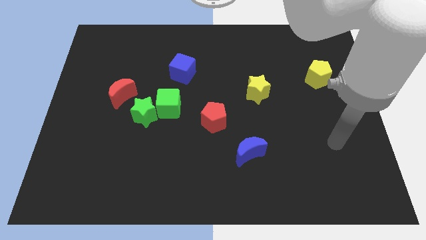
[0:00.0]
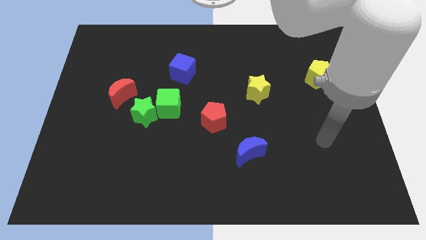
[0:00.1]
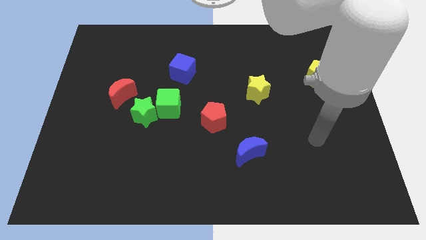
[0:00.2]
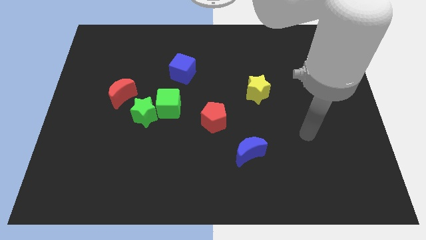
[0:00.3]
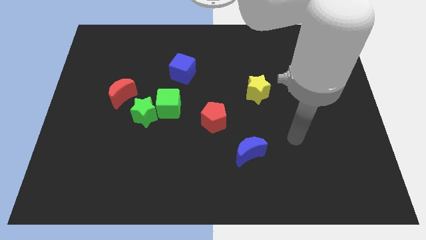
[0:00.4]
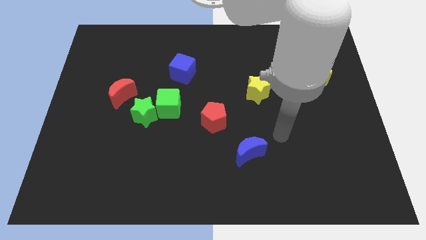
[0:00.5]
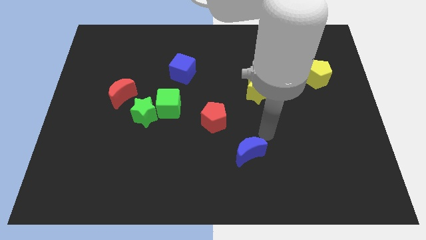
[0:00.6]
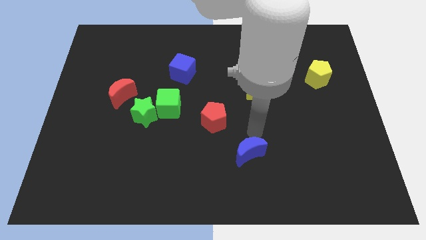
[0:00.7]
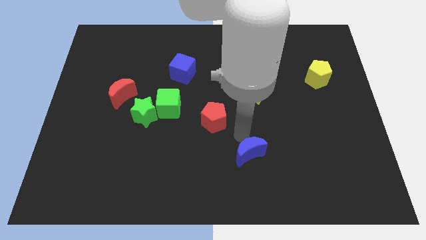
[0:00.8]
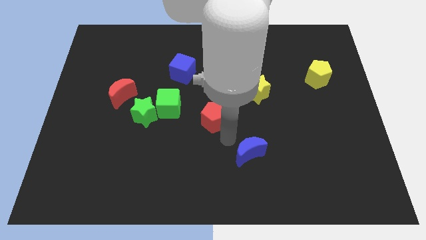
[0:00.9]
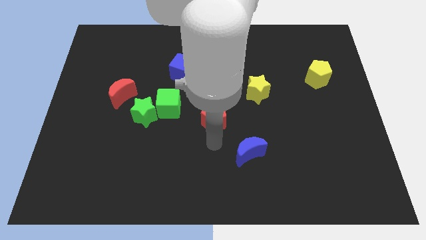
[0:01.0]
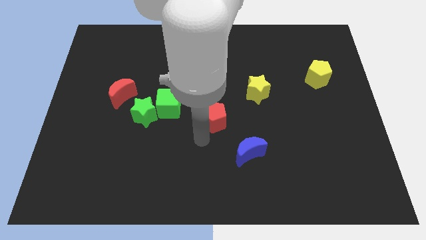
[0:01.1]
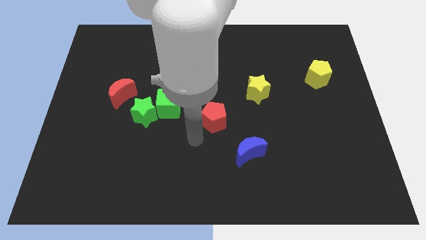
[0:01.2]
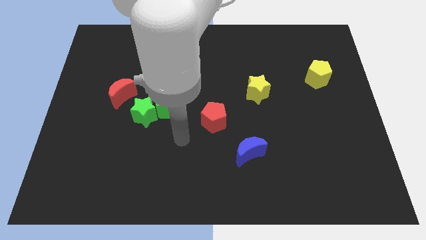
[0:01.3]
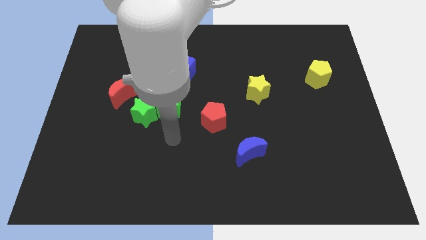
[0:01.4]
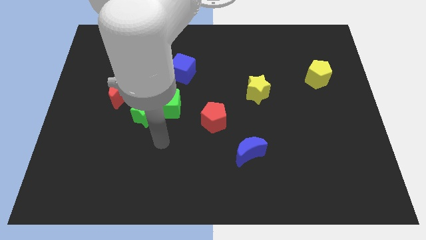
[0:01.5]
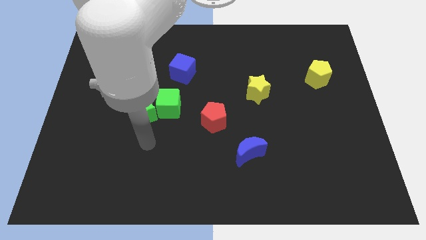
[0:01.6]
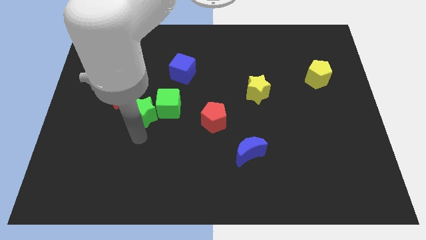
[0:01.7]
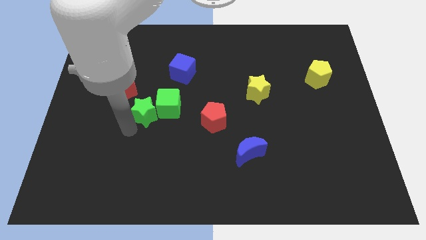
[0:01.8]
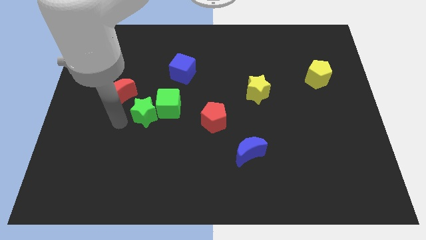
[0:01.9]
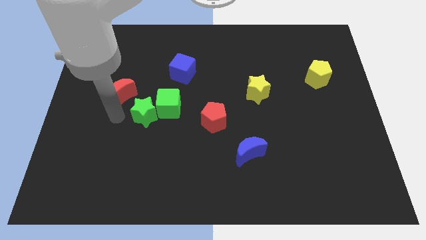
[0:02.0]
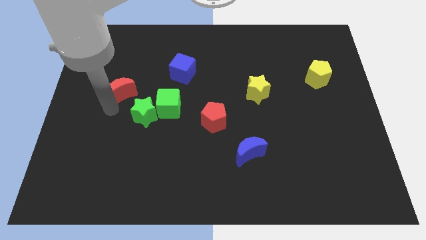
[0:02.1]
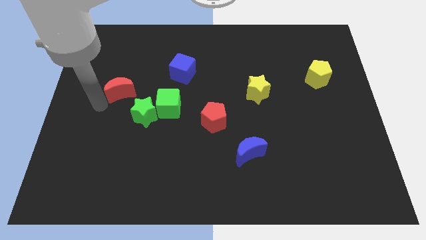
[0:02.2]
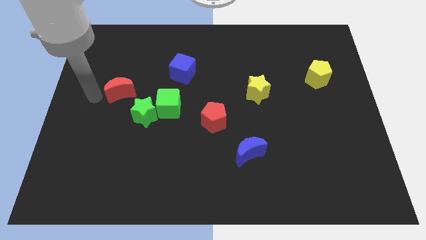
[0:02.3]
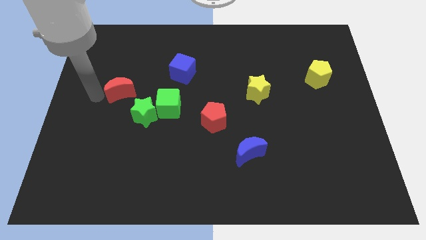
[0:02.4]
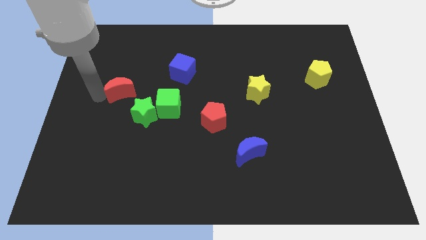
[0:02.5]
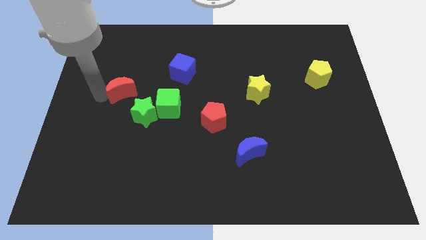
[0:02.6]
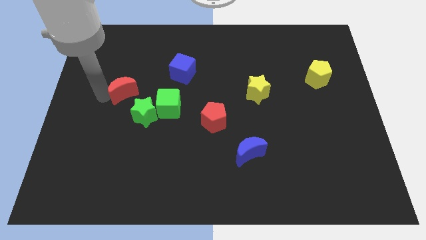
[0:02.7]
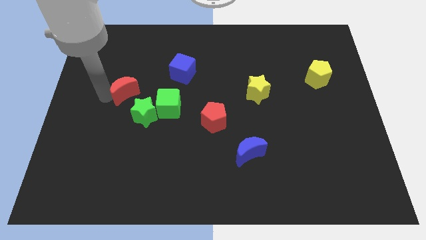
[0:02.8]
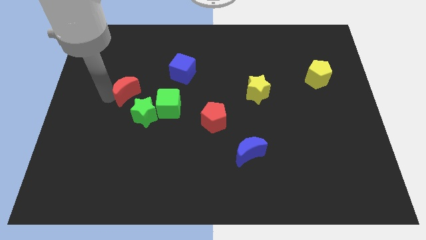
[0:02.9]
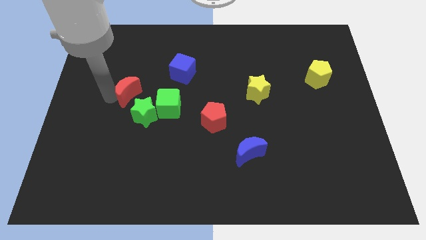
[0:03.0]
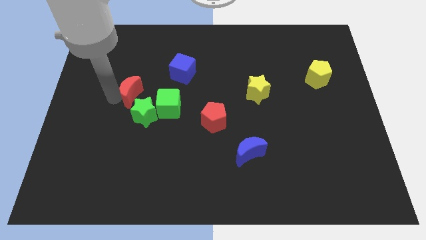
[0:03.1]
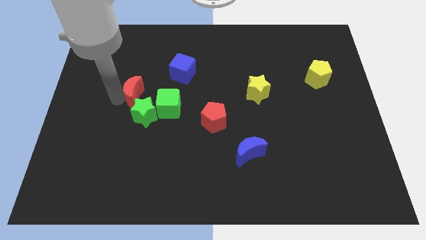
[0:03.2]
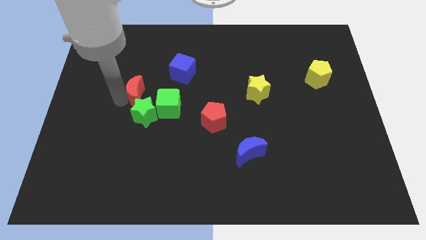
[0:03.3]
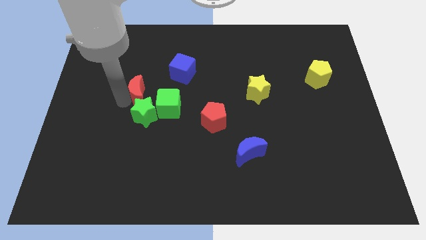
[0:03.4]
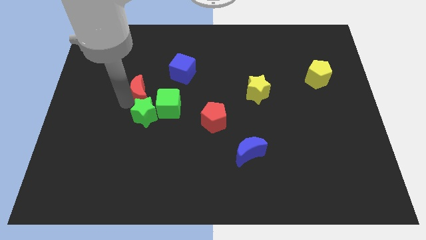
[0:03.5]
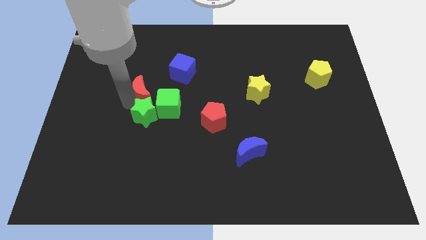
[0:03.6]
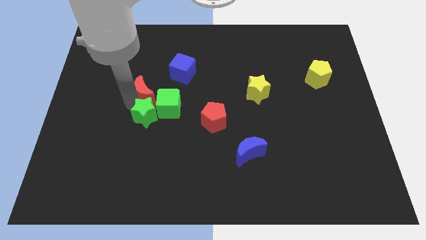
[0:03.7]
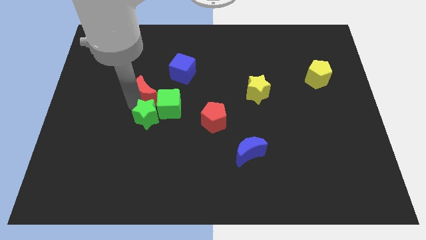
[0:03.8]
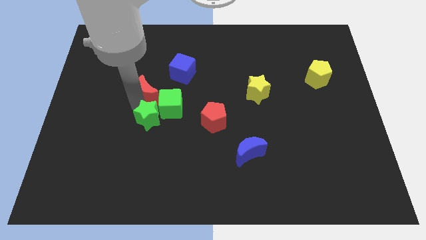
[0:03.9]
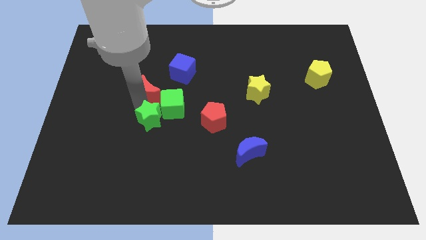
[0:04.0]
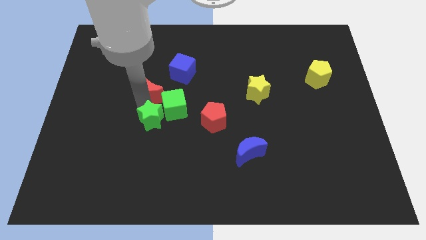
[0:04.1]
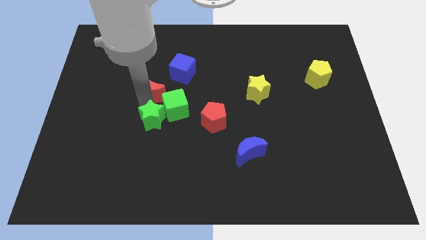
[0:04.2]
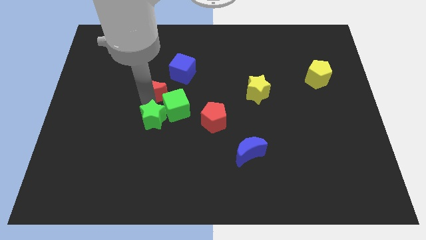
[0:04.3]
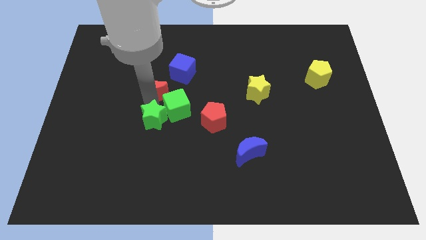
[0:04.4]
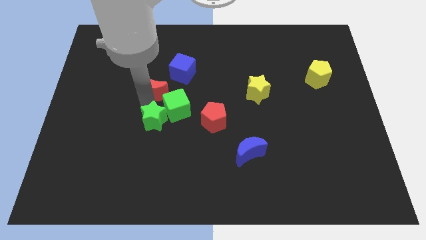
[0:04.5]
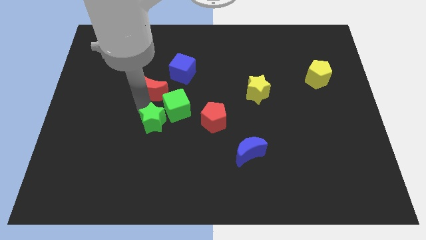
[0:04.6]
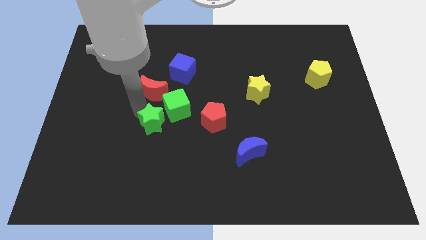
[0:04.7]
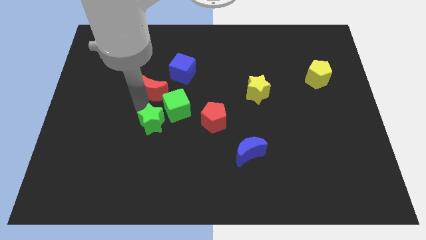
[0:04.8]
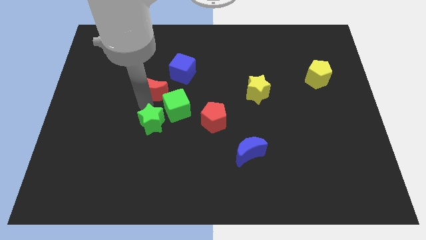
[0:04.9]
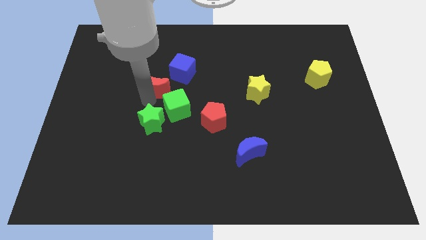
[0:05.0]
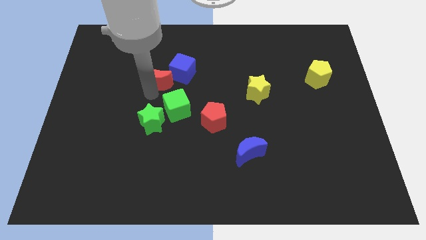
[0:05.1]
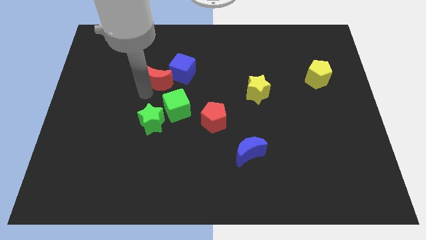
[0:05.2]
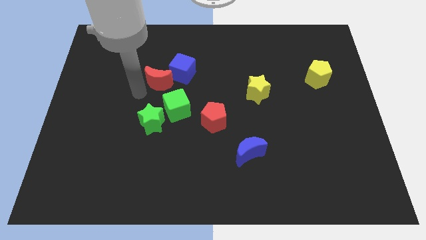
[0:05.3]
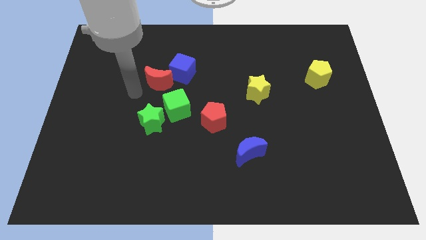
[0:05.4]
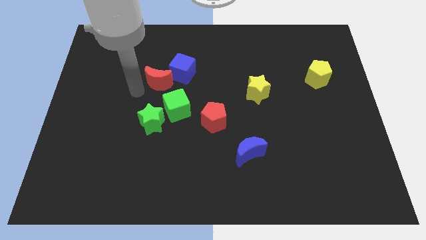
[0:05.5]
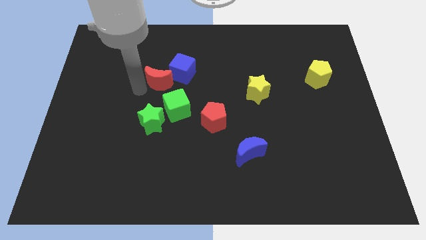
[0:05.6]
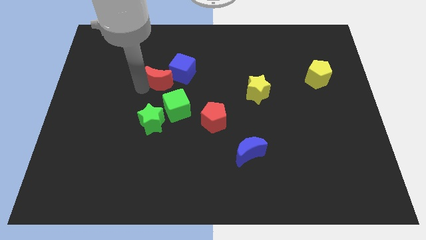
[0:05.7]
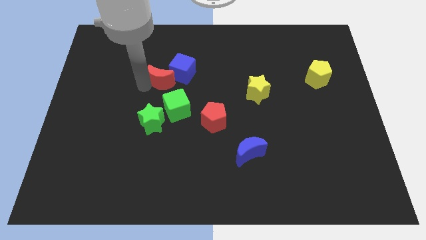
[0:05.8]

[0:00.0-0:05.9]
slide the red moon to the blue cube
